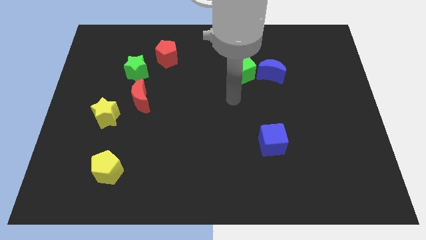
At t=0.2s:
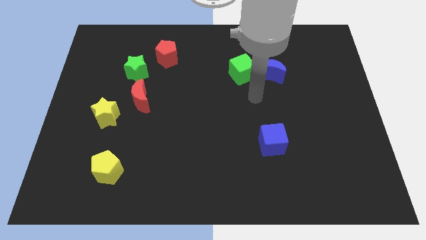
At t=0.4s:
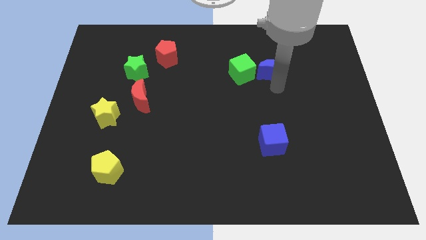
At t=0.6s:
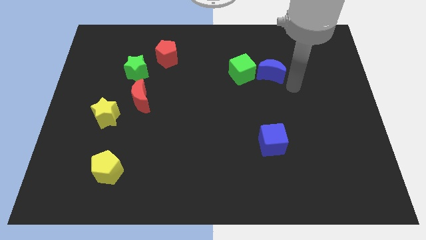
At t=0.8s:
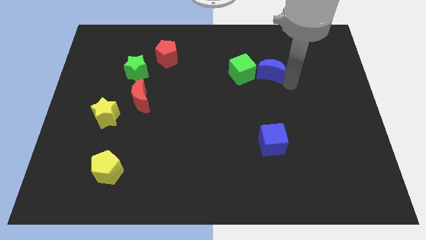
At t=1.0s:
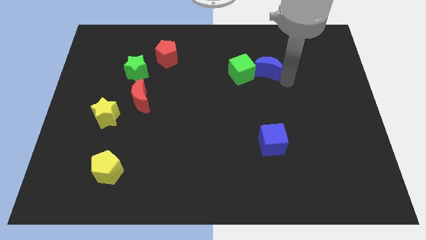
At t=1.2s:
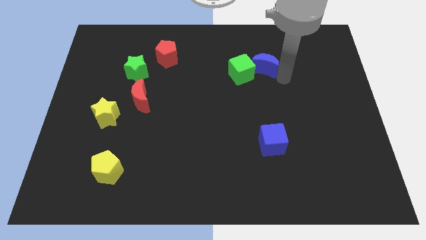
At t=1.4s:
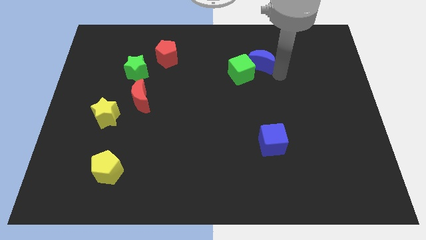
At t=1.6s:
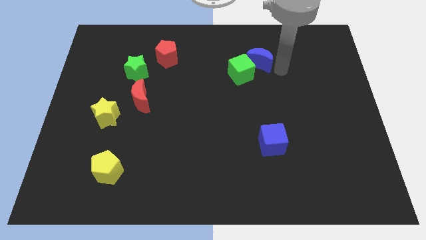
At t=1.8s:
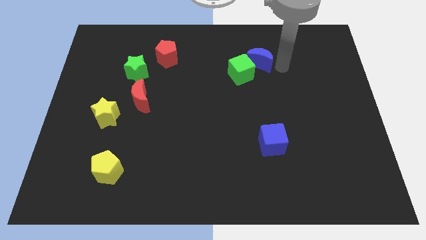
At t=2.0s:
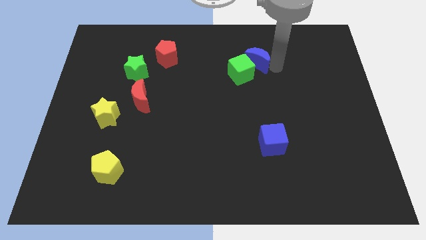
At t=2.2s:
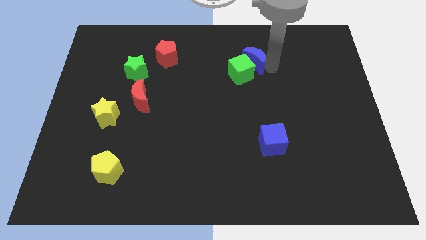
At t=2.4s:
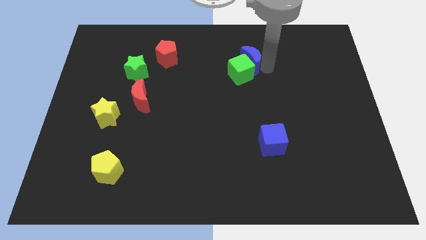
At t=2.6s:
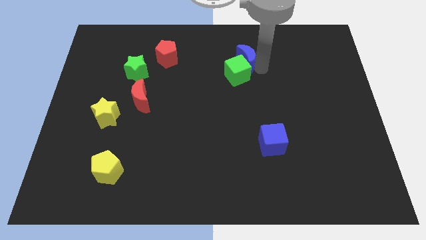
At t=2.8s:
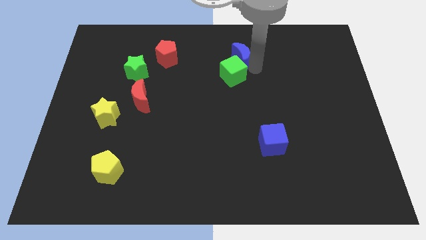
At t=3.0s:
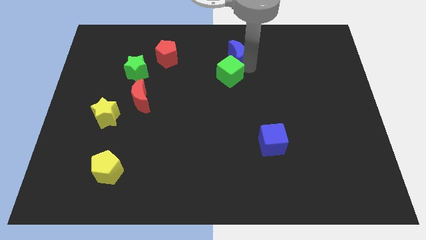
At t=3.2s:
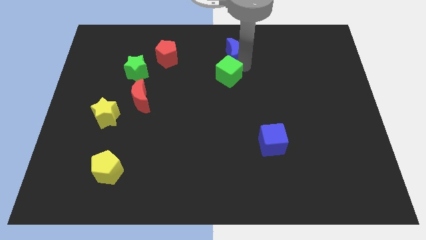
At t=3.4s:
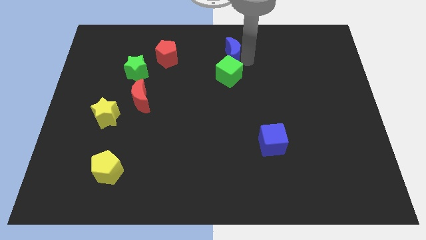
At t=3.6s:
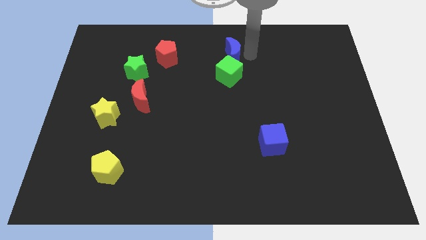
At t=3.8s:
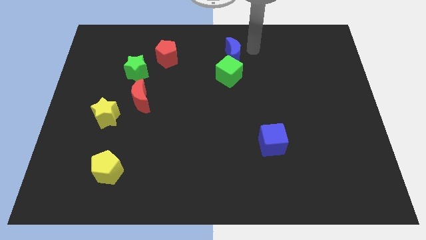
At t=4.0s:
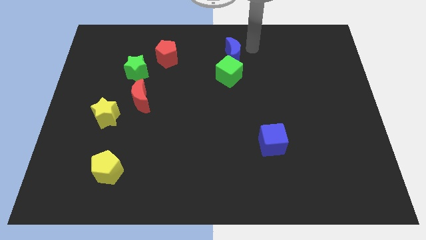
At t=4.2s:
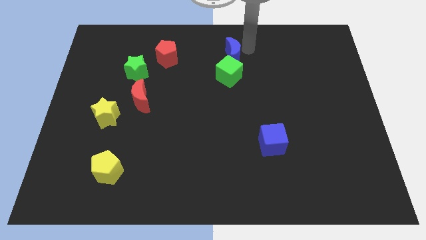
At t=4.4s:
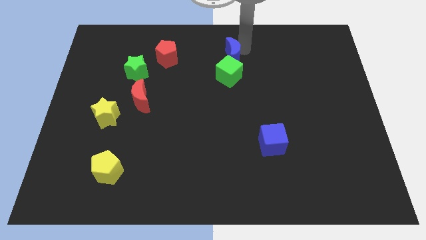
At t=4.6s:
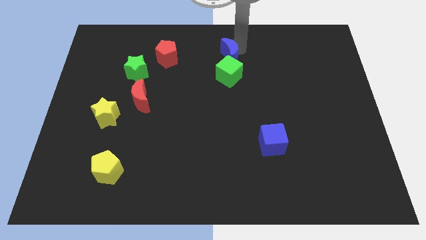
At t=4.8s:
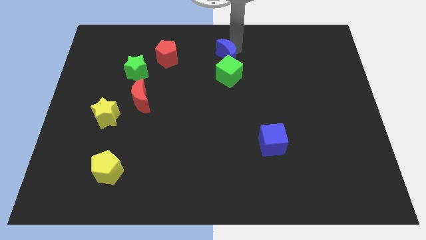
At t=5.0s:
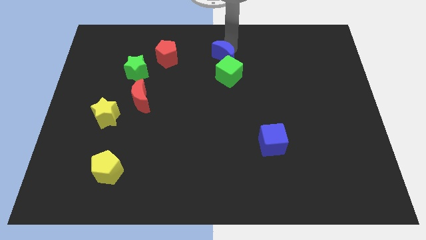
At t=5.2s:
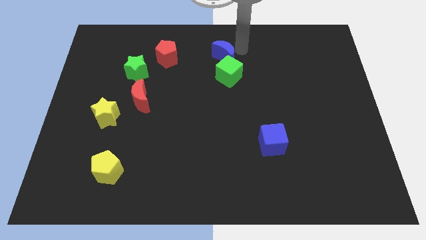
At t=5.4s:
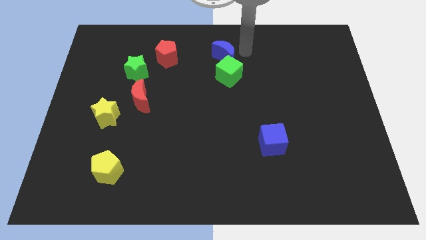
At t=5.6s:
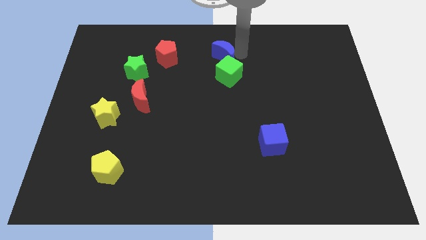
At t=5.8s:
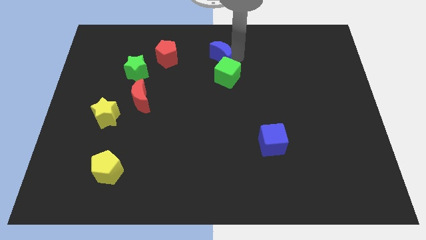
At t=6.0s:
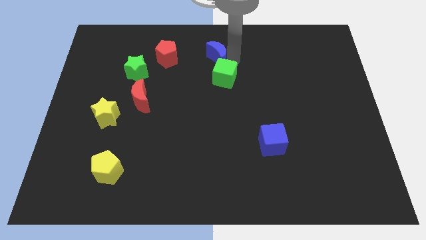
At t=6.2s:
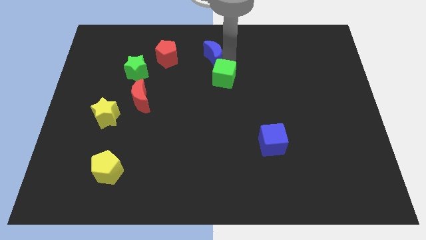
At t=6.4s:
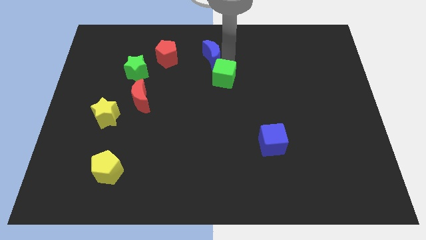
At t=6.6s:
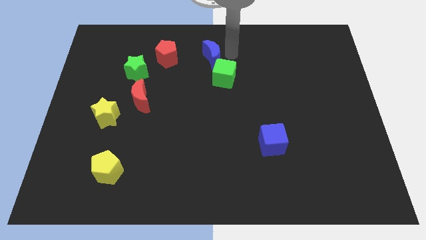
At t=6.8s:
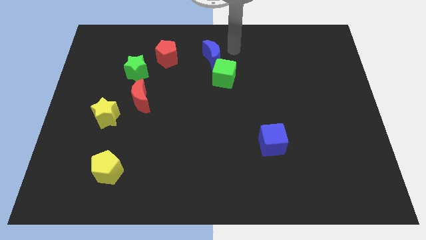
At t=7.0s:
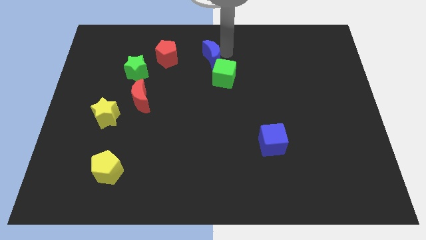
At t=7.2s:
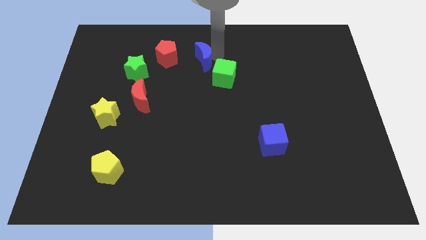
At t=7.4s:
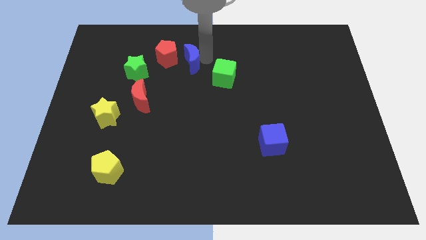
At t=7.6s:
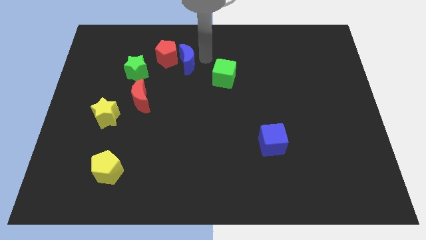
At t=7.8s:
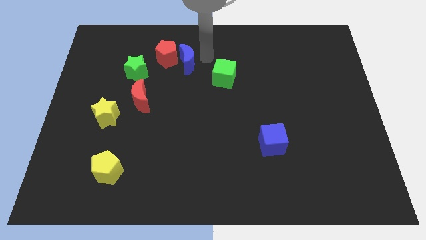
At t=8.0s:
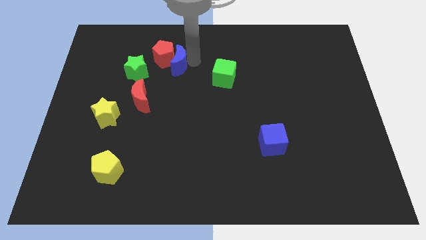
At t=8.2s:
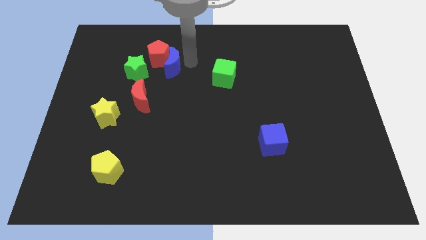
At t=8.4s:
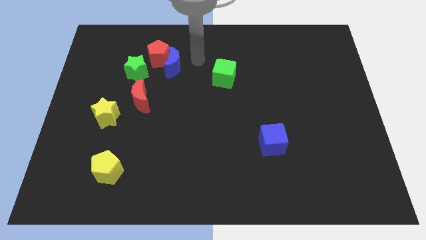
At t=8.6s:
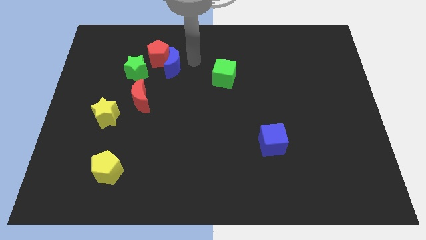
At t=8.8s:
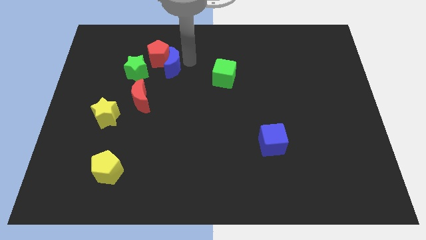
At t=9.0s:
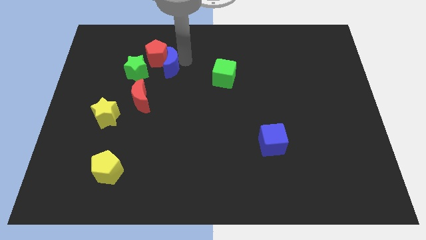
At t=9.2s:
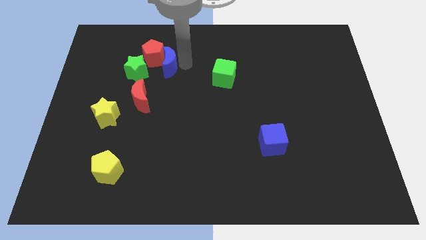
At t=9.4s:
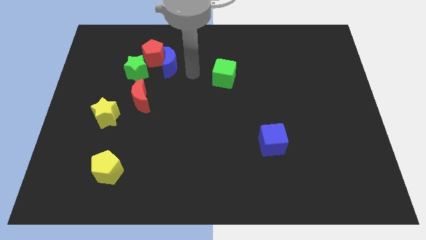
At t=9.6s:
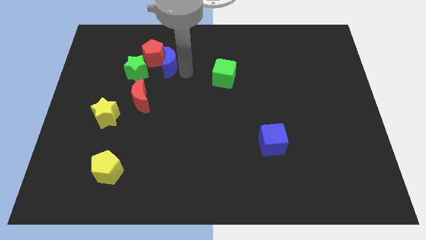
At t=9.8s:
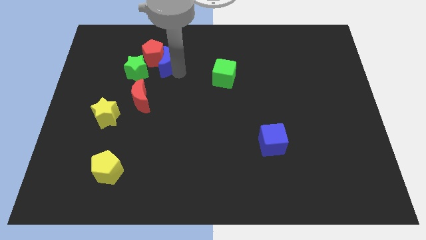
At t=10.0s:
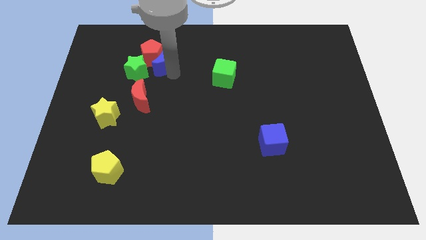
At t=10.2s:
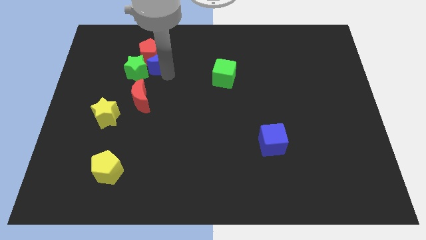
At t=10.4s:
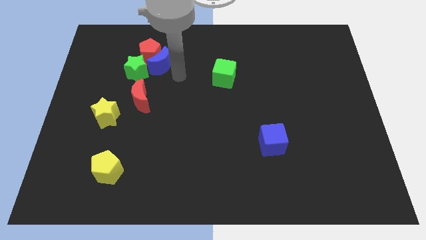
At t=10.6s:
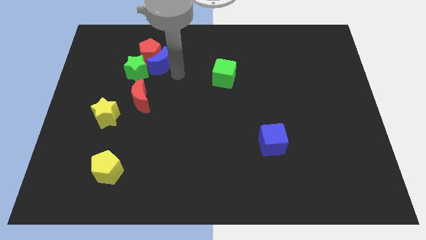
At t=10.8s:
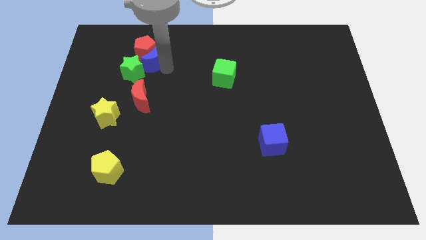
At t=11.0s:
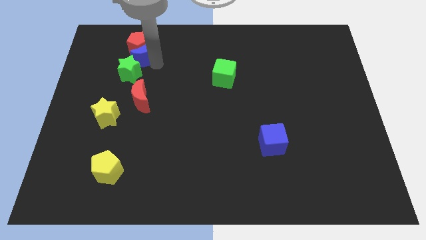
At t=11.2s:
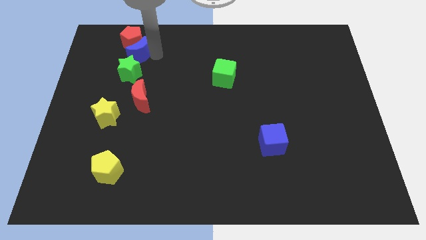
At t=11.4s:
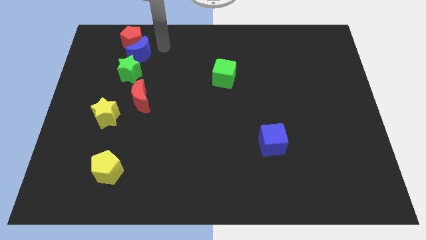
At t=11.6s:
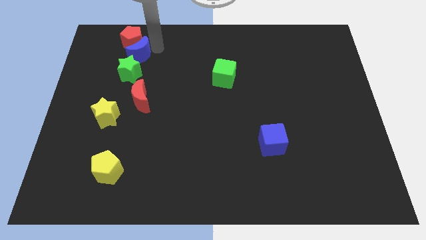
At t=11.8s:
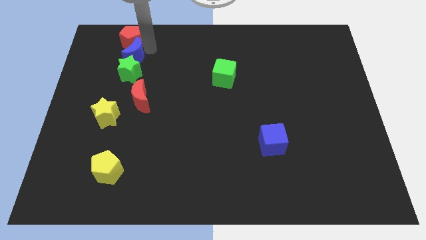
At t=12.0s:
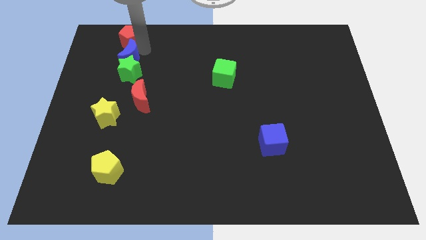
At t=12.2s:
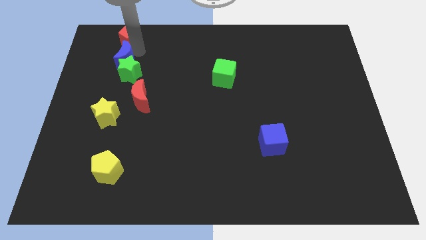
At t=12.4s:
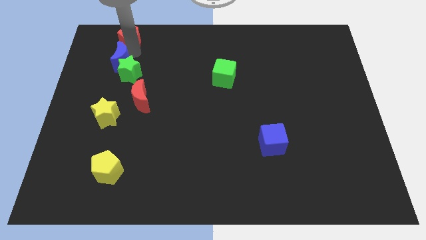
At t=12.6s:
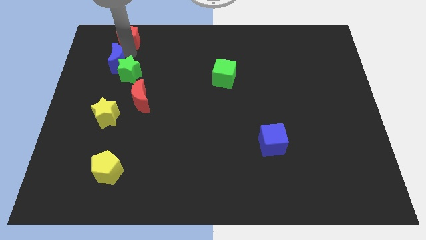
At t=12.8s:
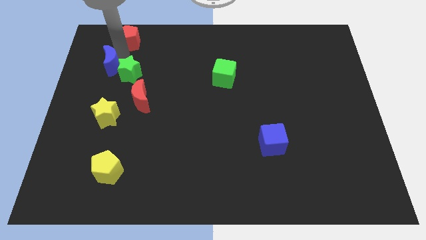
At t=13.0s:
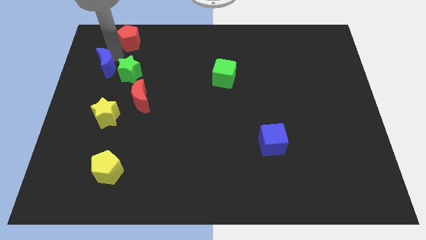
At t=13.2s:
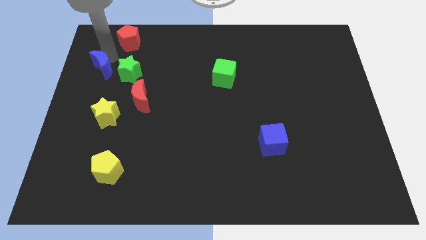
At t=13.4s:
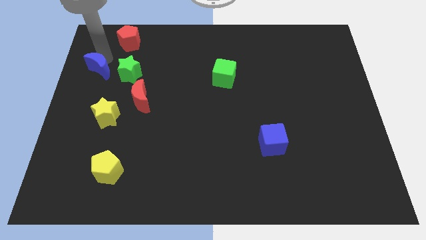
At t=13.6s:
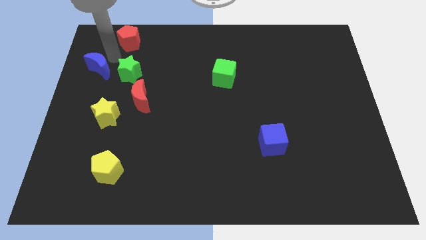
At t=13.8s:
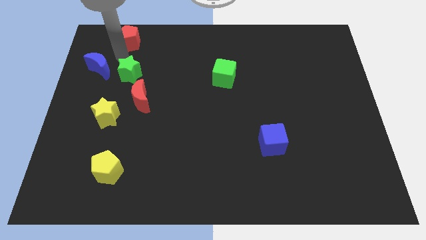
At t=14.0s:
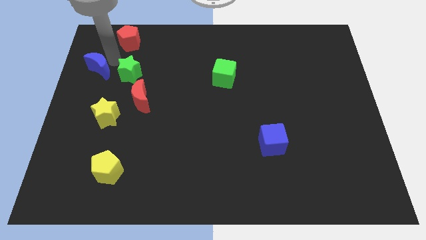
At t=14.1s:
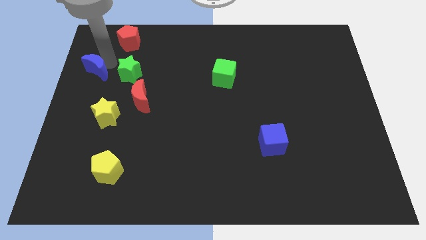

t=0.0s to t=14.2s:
move the blue moon to the left side of the board
